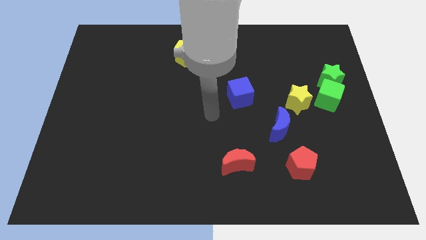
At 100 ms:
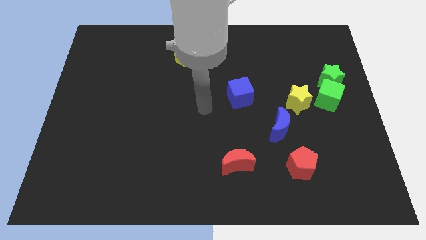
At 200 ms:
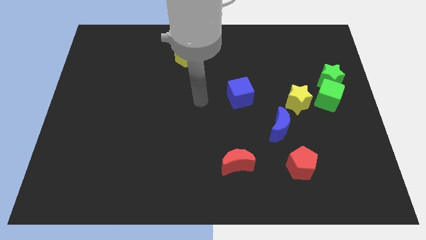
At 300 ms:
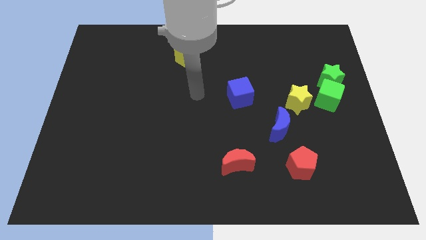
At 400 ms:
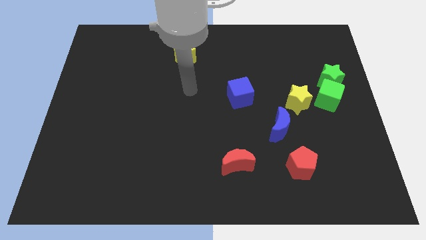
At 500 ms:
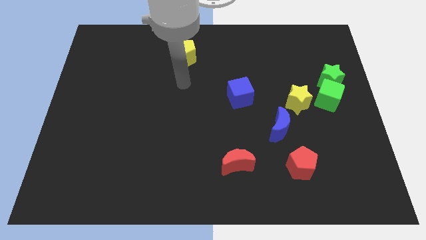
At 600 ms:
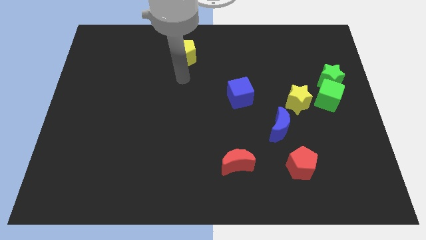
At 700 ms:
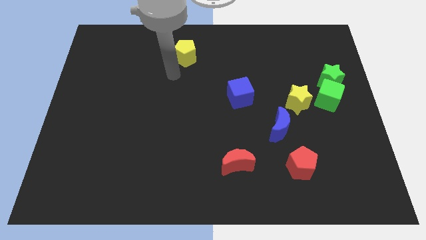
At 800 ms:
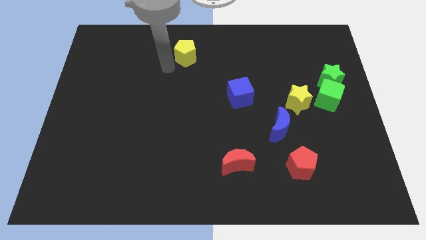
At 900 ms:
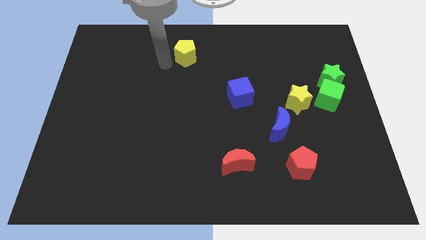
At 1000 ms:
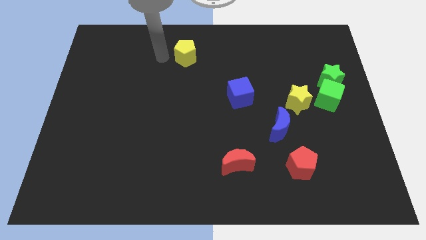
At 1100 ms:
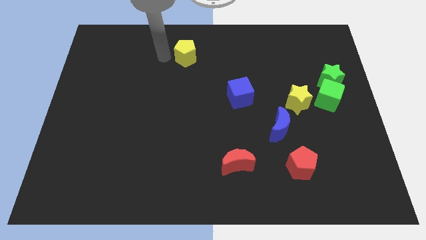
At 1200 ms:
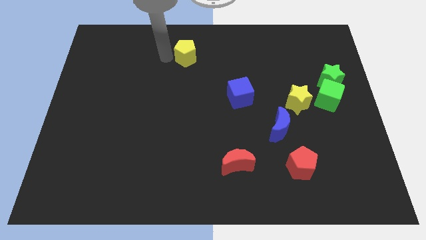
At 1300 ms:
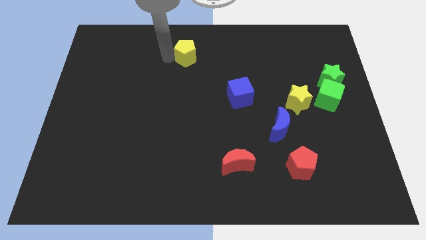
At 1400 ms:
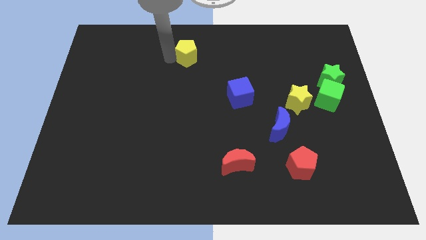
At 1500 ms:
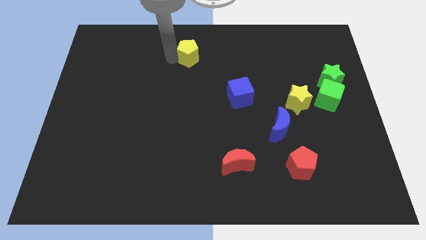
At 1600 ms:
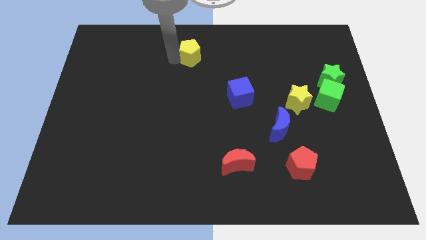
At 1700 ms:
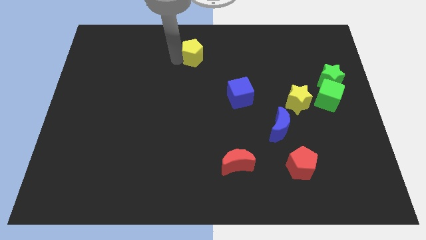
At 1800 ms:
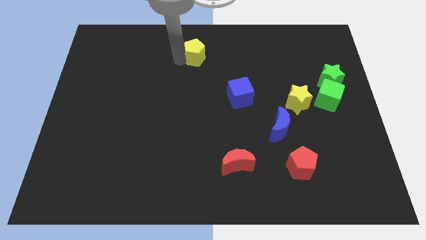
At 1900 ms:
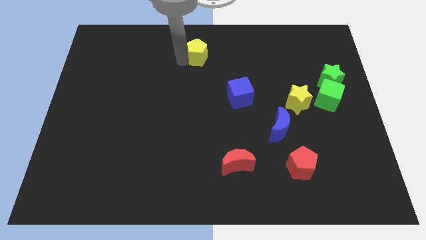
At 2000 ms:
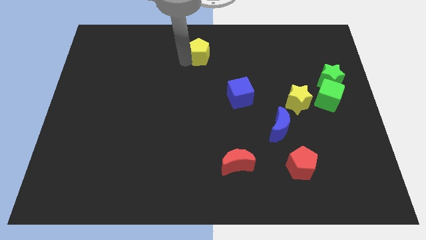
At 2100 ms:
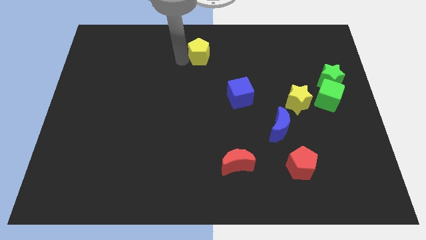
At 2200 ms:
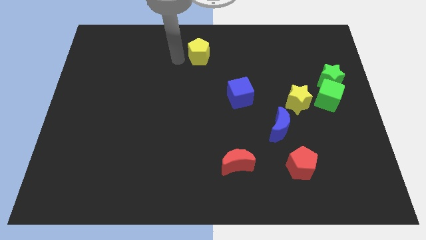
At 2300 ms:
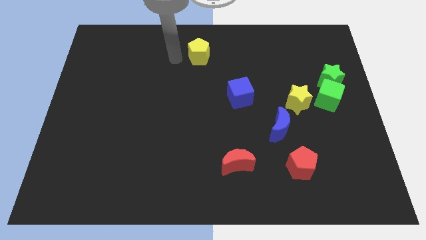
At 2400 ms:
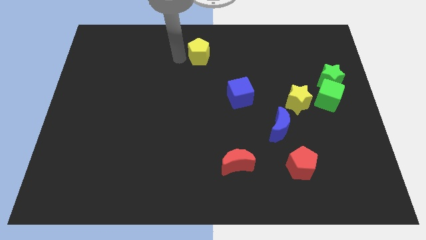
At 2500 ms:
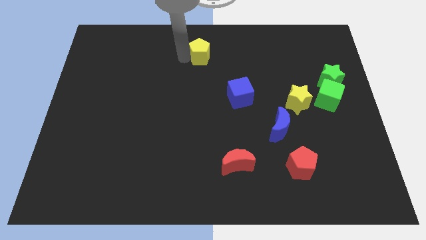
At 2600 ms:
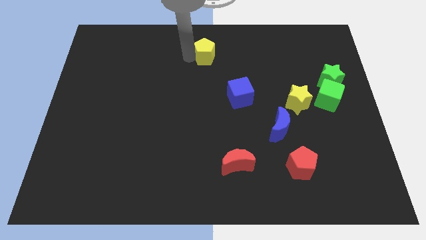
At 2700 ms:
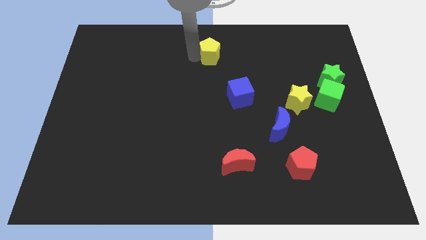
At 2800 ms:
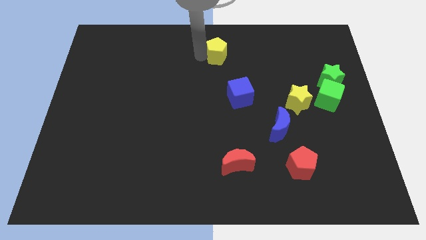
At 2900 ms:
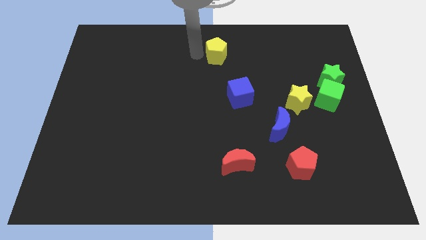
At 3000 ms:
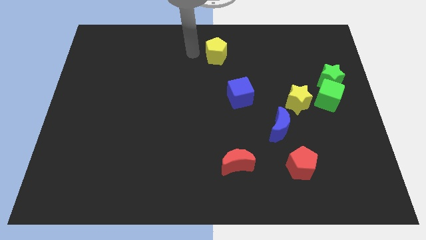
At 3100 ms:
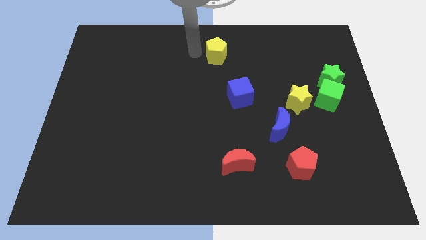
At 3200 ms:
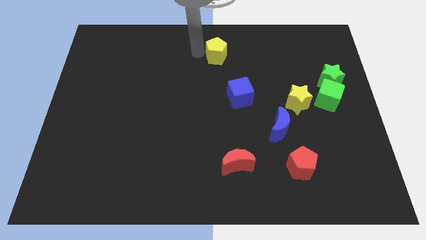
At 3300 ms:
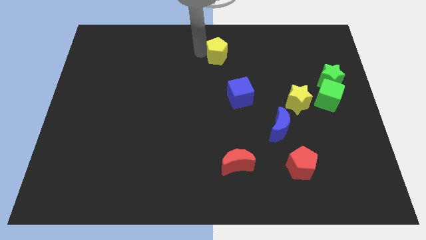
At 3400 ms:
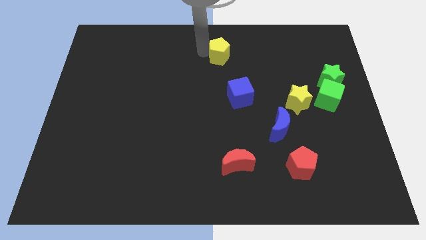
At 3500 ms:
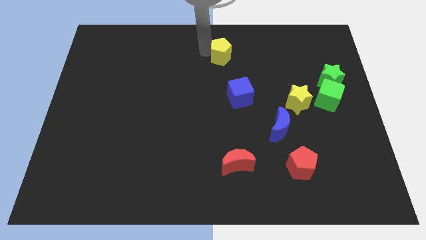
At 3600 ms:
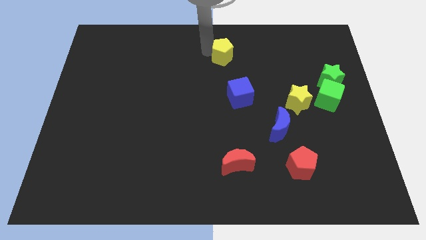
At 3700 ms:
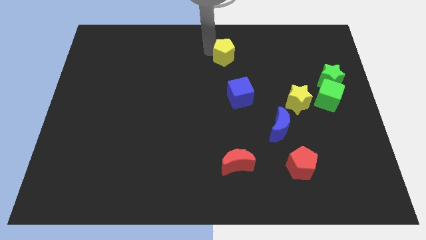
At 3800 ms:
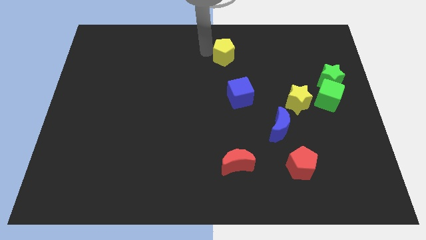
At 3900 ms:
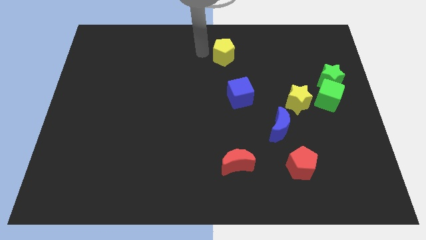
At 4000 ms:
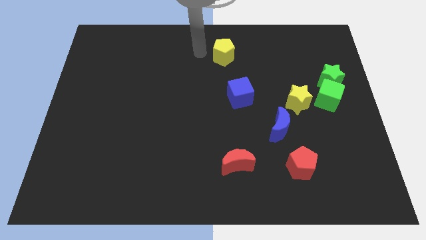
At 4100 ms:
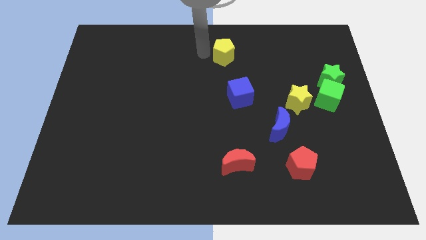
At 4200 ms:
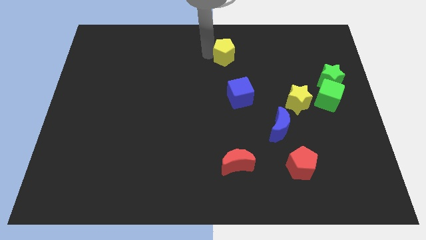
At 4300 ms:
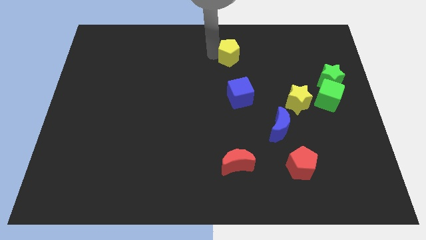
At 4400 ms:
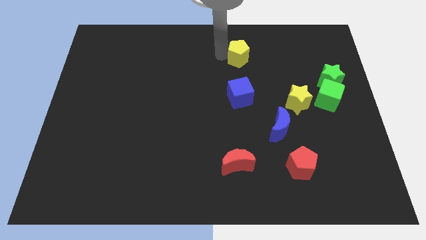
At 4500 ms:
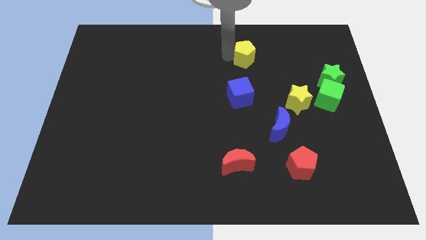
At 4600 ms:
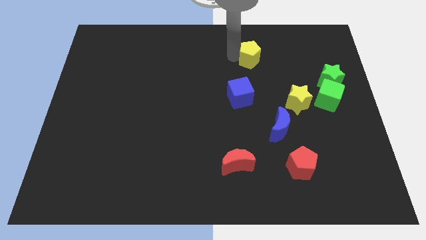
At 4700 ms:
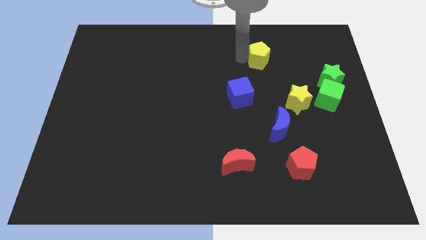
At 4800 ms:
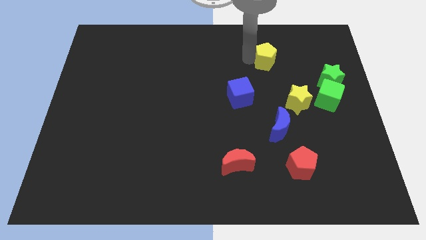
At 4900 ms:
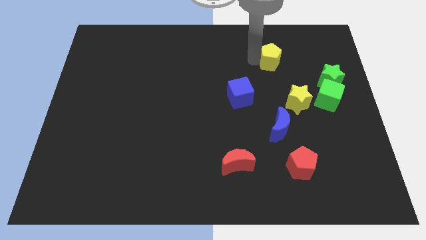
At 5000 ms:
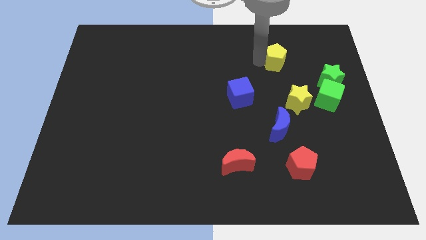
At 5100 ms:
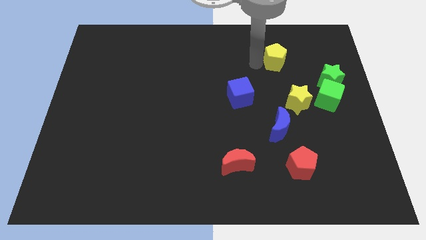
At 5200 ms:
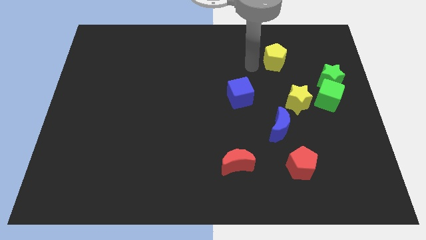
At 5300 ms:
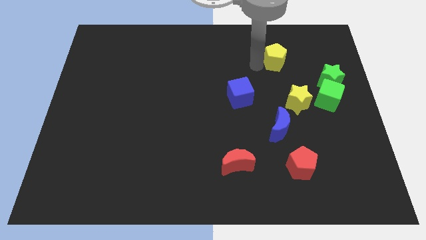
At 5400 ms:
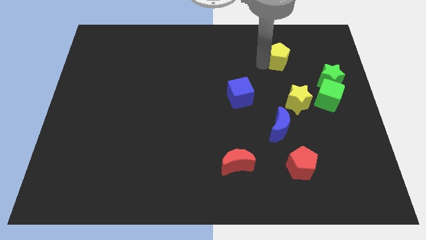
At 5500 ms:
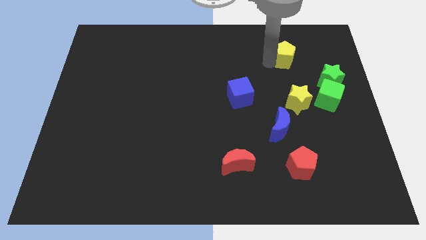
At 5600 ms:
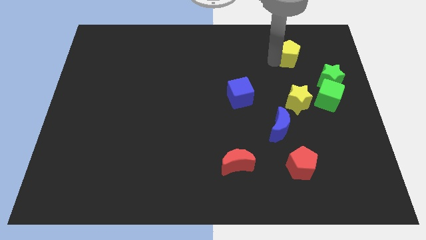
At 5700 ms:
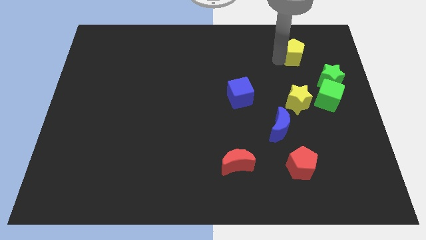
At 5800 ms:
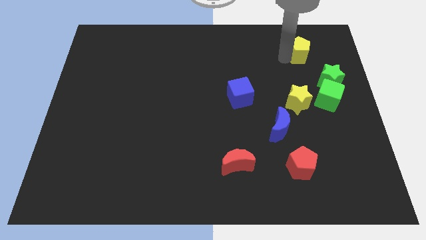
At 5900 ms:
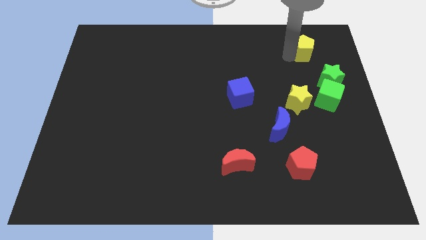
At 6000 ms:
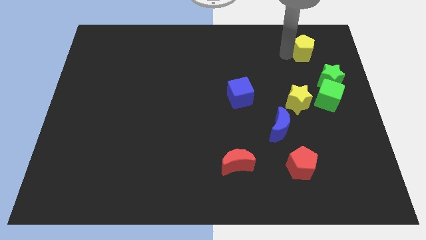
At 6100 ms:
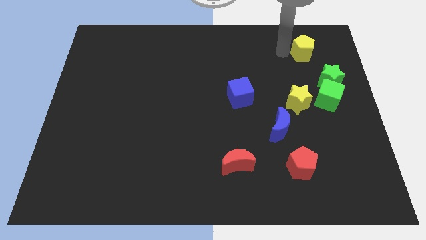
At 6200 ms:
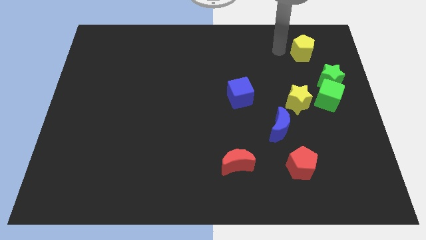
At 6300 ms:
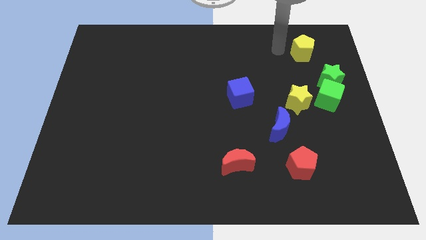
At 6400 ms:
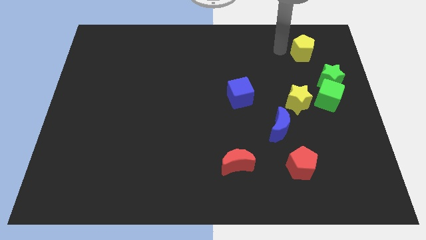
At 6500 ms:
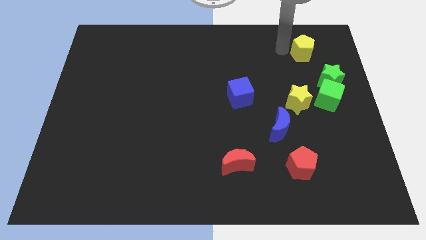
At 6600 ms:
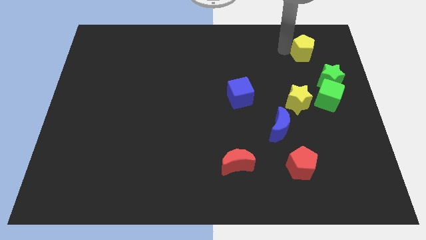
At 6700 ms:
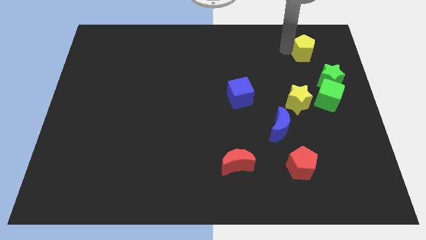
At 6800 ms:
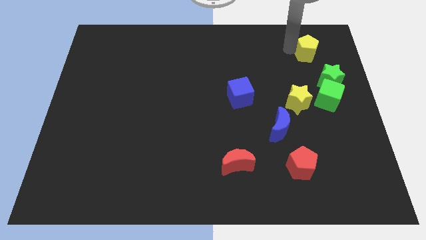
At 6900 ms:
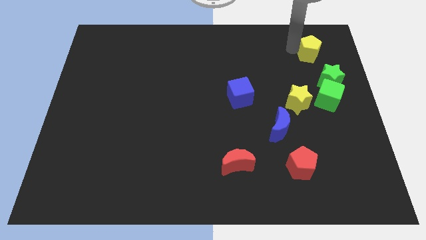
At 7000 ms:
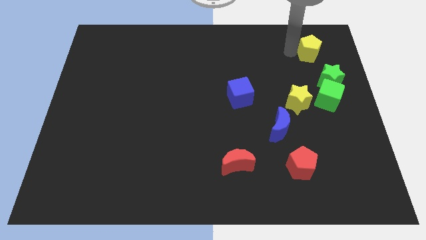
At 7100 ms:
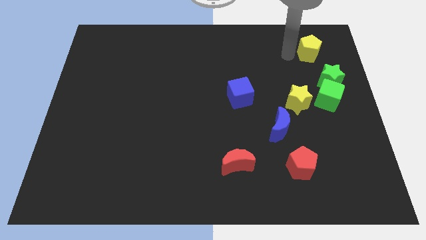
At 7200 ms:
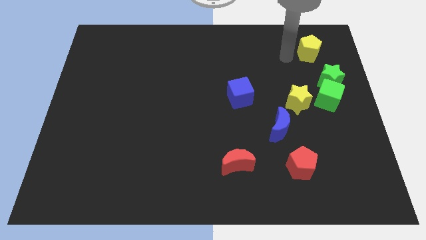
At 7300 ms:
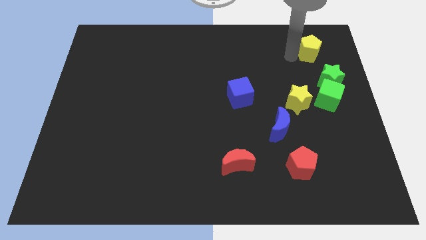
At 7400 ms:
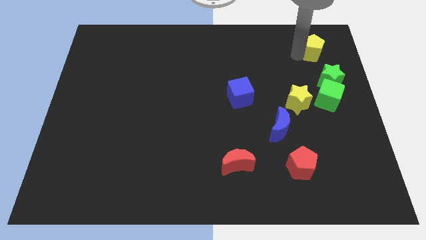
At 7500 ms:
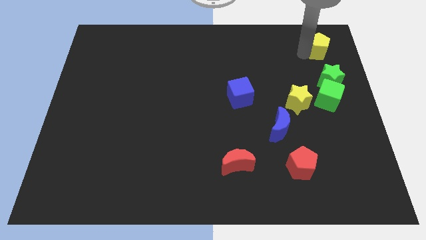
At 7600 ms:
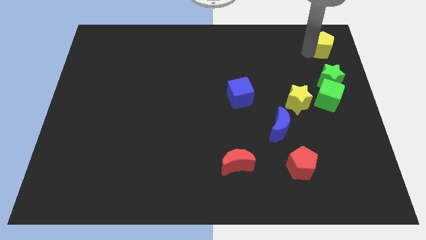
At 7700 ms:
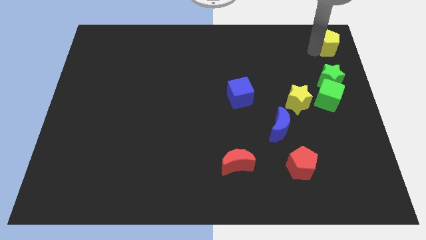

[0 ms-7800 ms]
push the yellow pentagon to the top right
